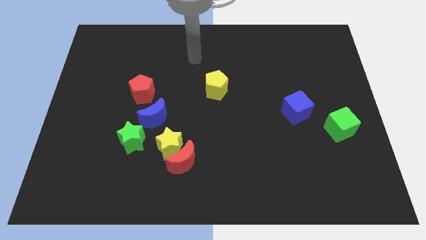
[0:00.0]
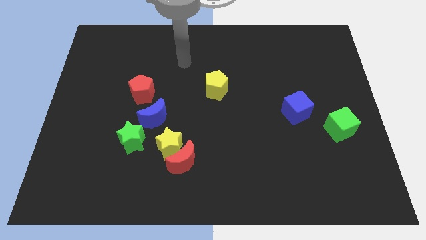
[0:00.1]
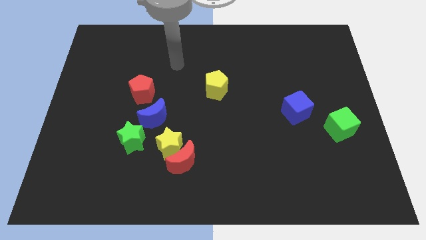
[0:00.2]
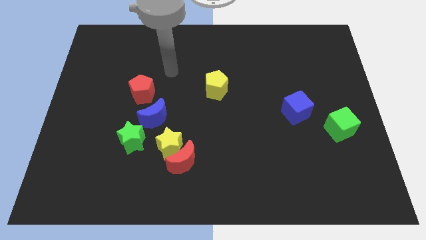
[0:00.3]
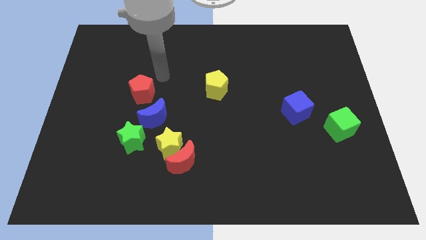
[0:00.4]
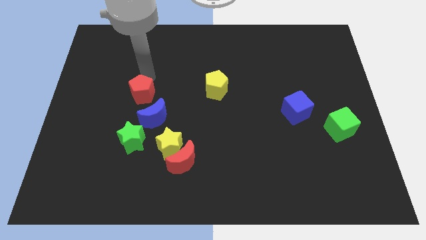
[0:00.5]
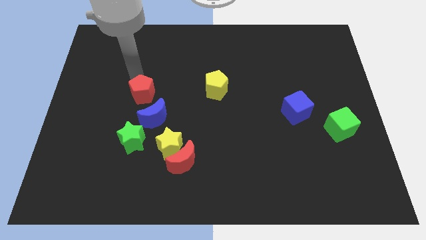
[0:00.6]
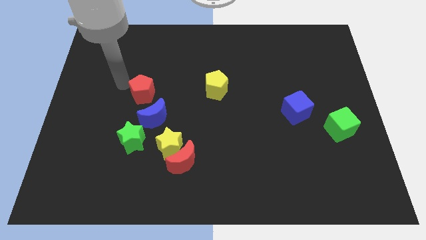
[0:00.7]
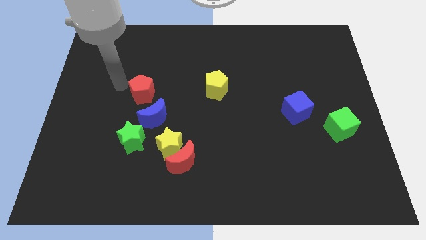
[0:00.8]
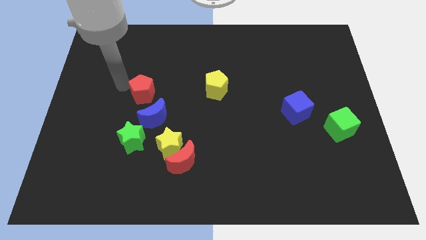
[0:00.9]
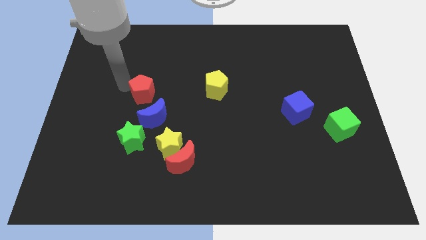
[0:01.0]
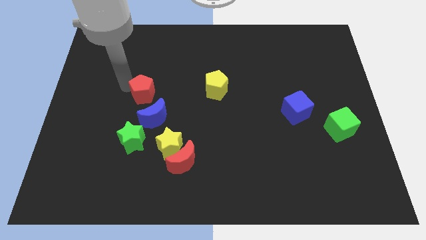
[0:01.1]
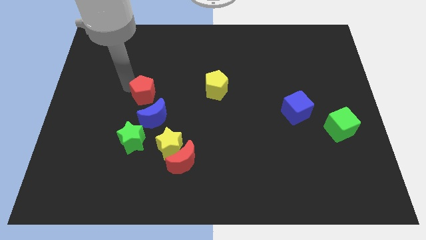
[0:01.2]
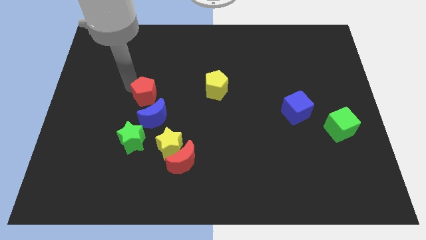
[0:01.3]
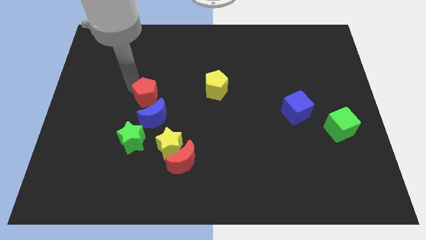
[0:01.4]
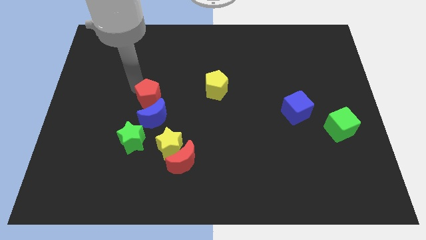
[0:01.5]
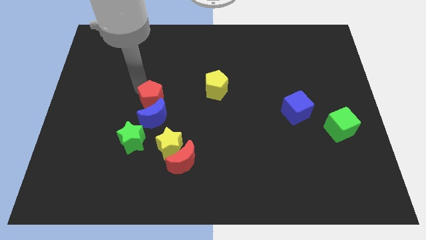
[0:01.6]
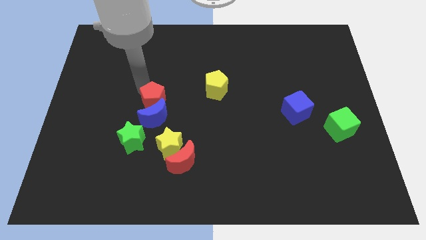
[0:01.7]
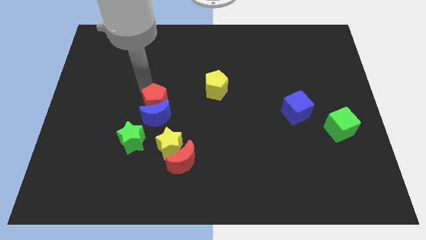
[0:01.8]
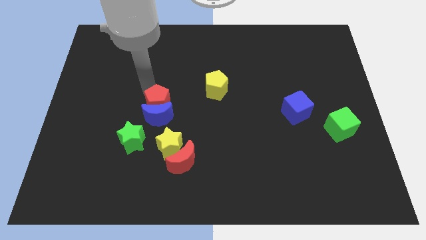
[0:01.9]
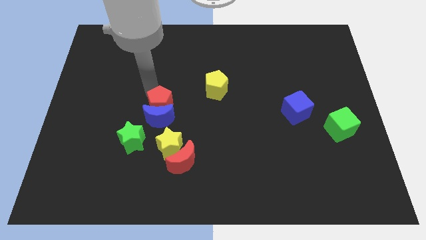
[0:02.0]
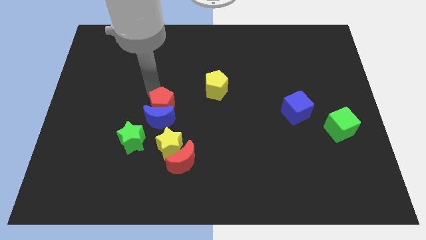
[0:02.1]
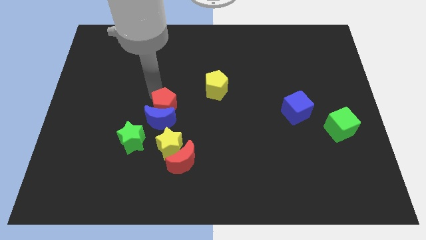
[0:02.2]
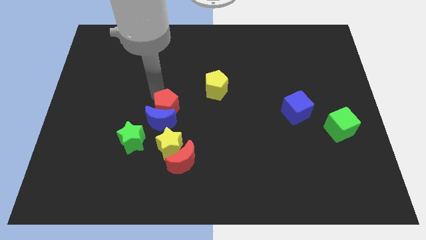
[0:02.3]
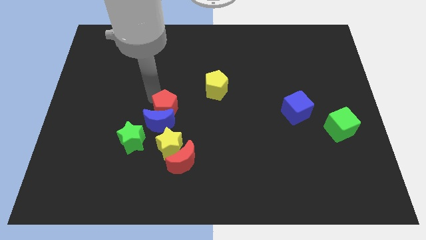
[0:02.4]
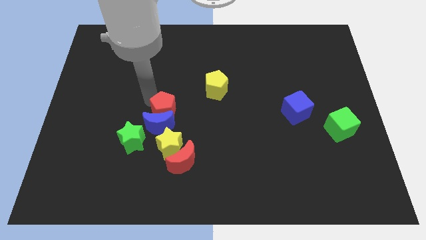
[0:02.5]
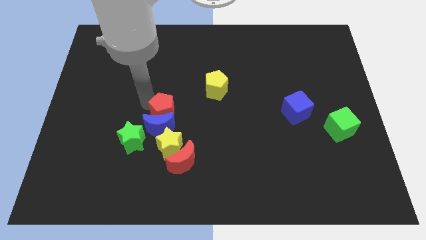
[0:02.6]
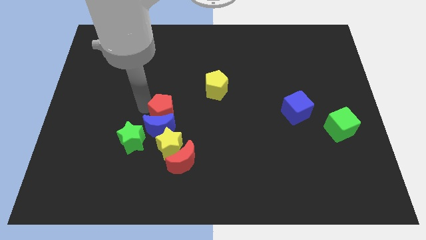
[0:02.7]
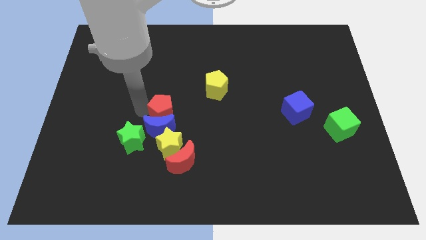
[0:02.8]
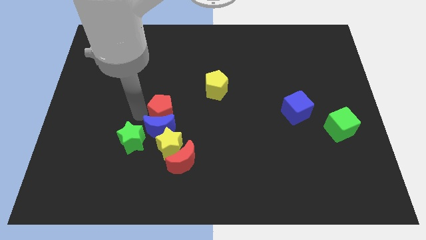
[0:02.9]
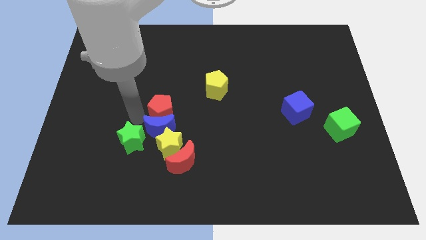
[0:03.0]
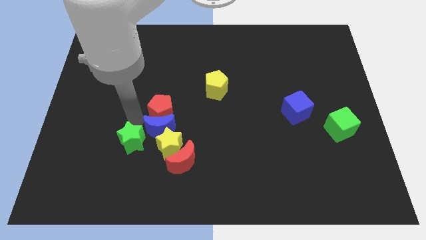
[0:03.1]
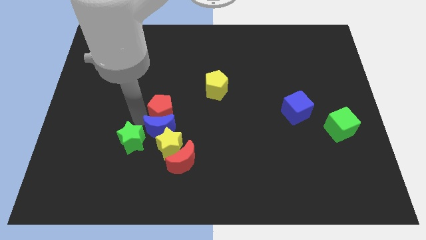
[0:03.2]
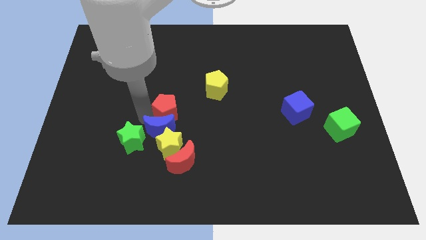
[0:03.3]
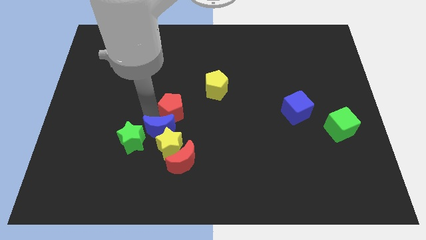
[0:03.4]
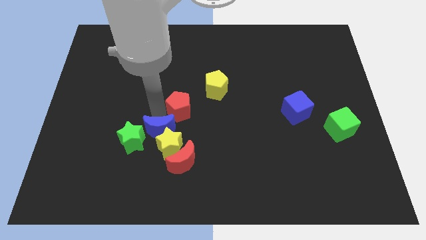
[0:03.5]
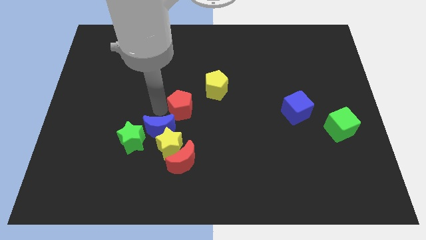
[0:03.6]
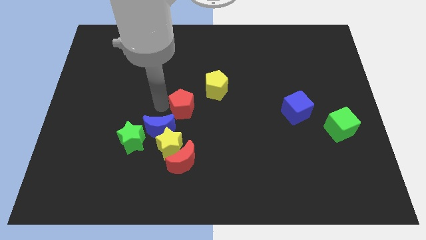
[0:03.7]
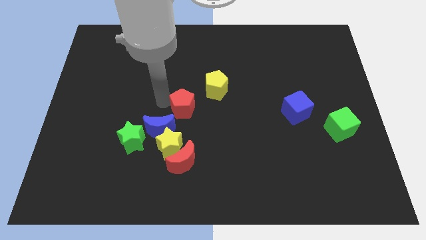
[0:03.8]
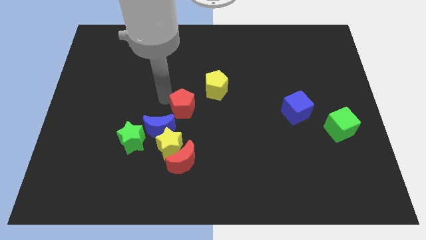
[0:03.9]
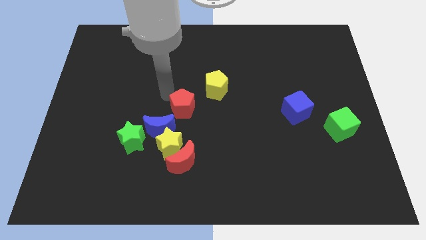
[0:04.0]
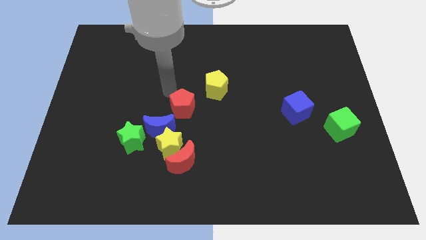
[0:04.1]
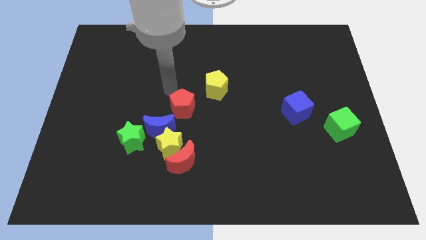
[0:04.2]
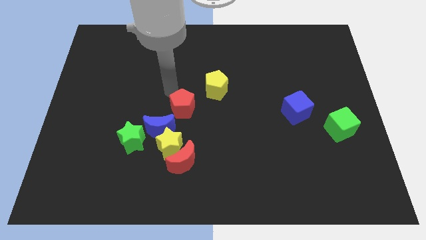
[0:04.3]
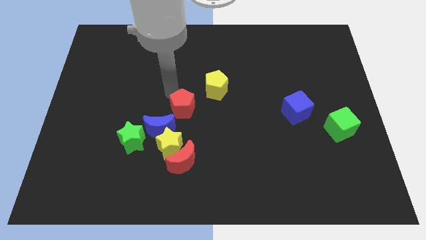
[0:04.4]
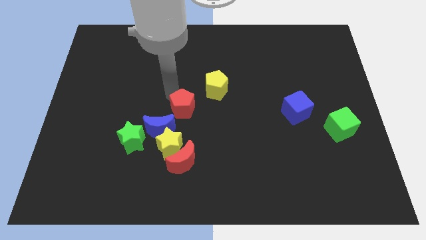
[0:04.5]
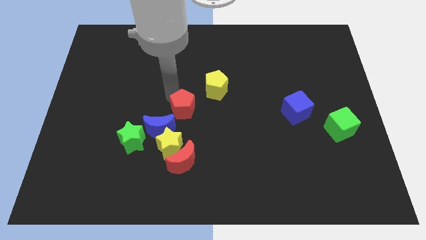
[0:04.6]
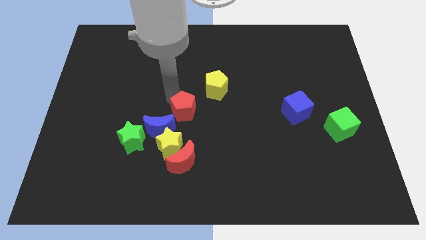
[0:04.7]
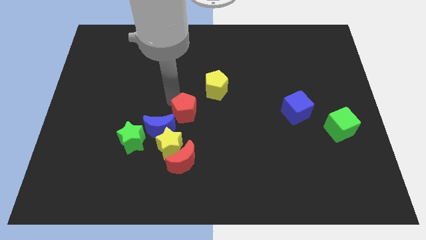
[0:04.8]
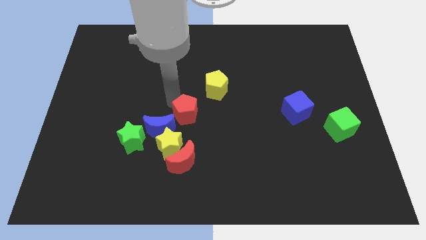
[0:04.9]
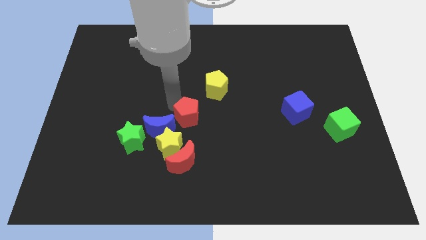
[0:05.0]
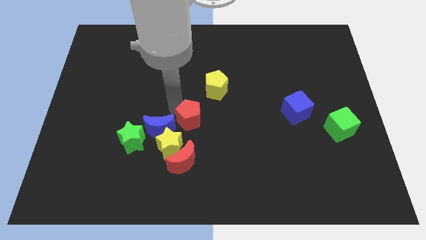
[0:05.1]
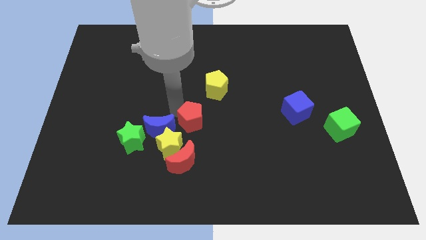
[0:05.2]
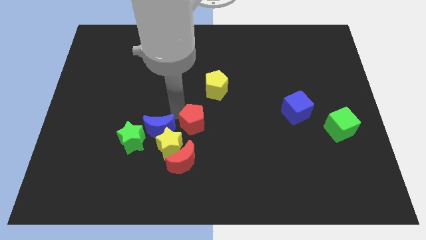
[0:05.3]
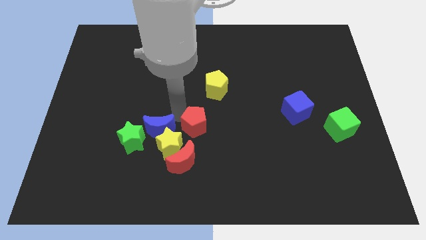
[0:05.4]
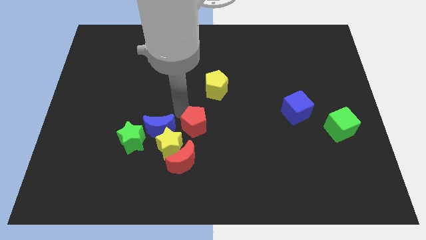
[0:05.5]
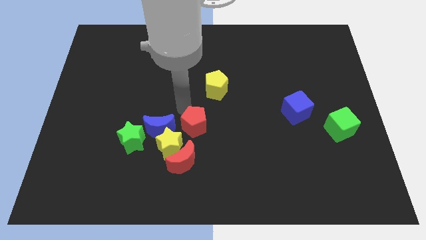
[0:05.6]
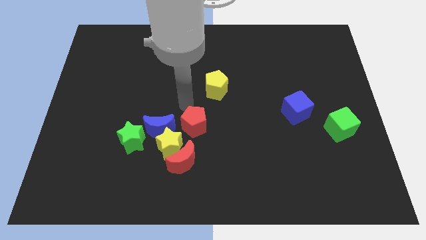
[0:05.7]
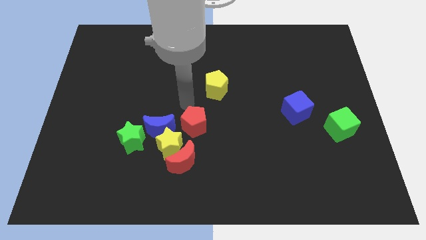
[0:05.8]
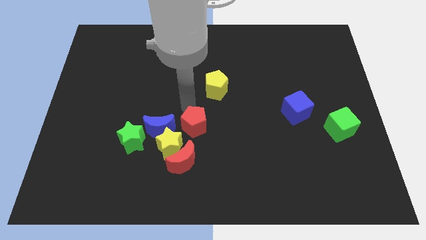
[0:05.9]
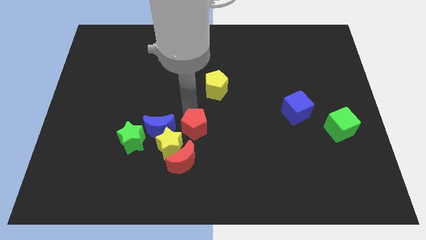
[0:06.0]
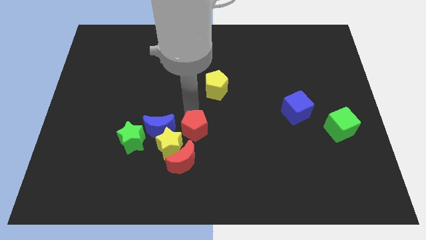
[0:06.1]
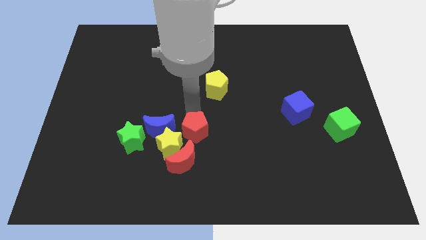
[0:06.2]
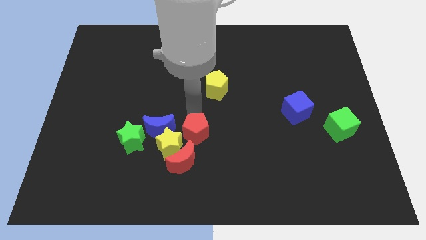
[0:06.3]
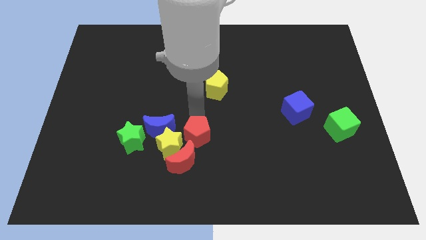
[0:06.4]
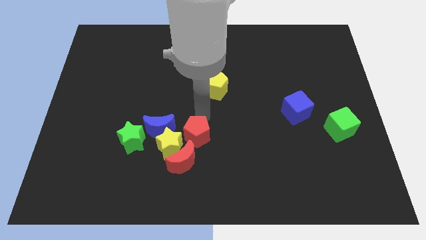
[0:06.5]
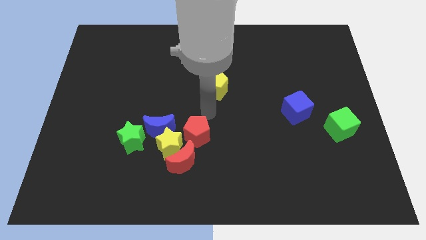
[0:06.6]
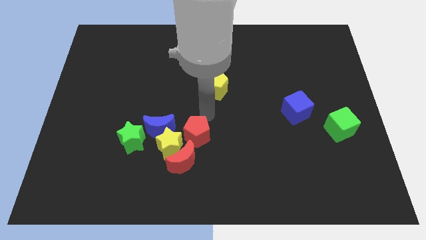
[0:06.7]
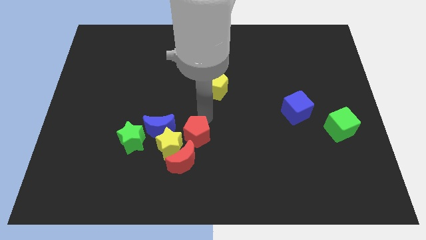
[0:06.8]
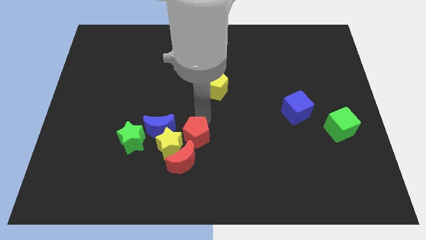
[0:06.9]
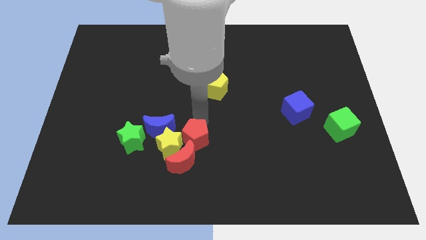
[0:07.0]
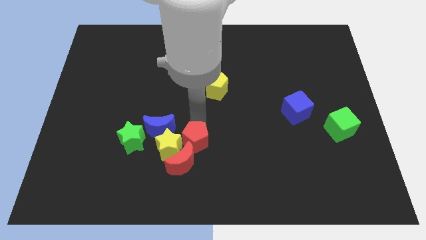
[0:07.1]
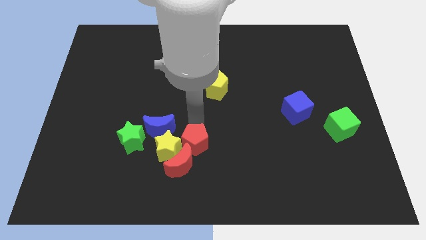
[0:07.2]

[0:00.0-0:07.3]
put the red pentagon next to the red moon
